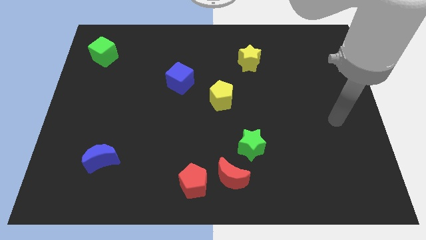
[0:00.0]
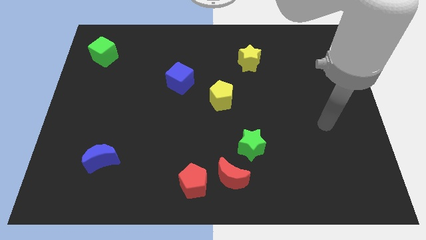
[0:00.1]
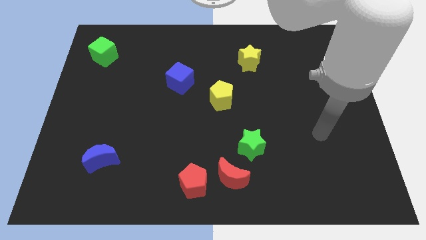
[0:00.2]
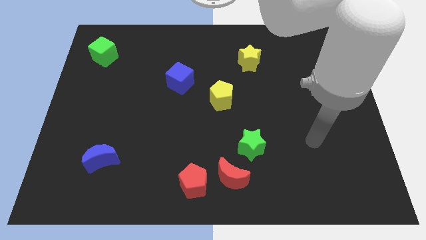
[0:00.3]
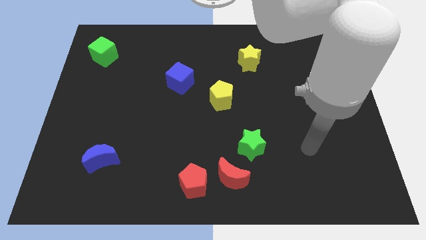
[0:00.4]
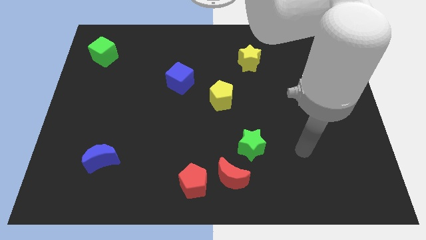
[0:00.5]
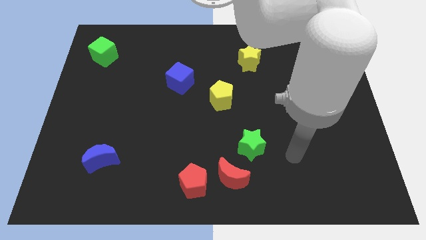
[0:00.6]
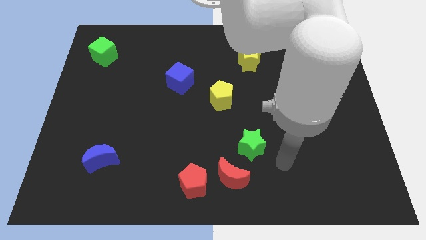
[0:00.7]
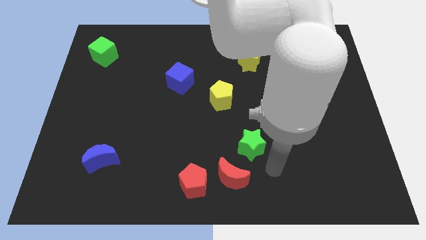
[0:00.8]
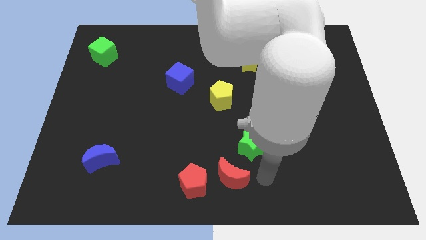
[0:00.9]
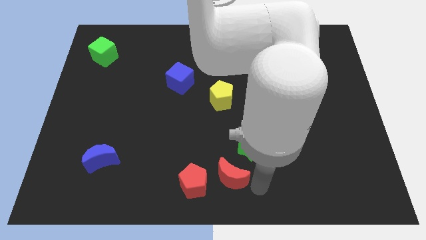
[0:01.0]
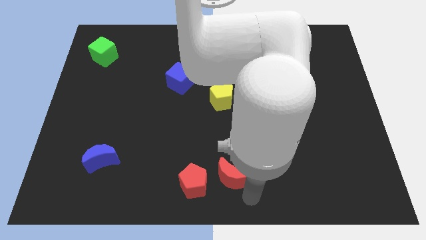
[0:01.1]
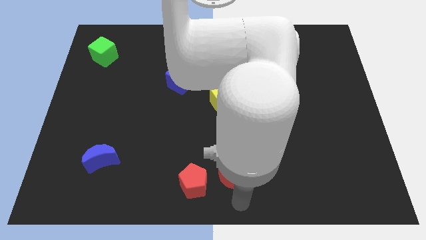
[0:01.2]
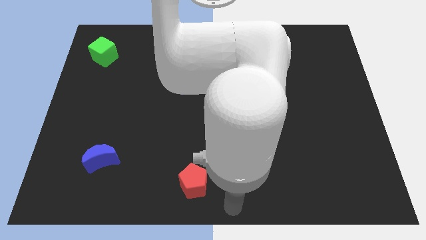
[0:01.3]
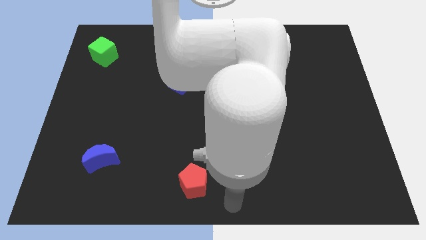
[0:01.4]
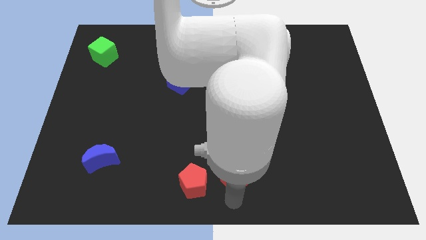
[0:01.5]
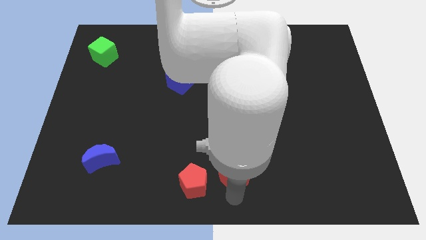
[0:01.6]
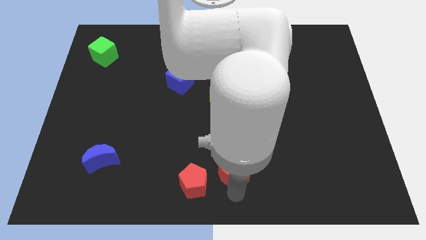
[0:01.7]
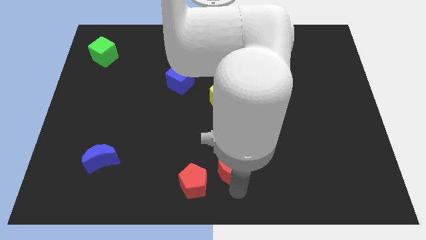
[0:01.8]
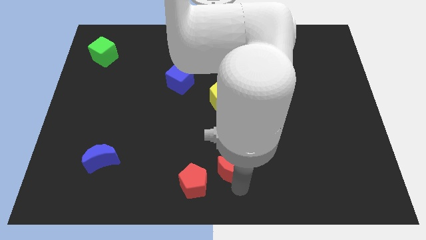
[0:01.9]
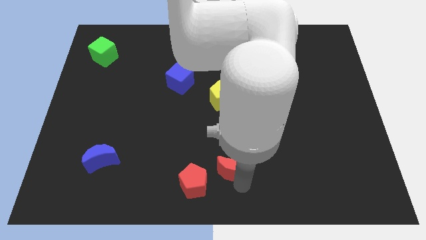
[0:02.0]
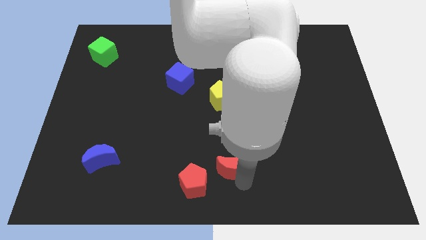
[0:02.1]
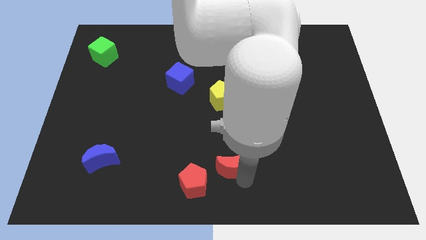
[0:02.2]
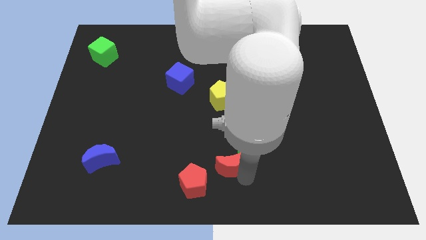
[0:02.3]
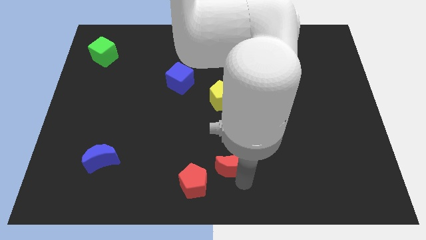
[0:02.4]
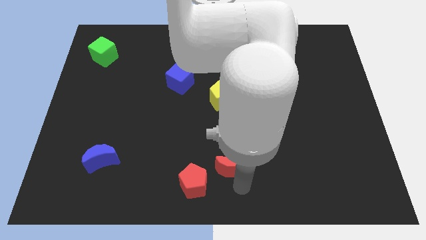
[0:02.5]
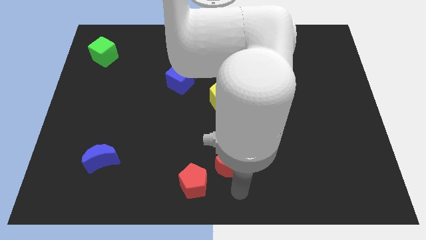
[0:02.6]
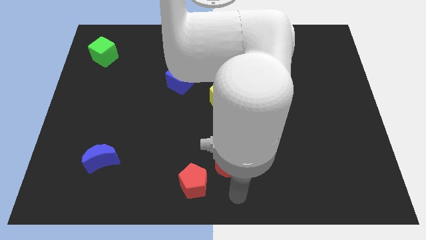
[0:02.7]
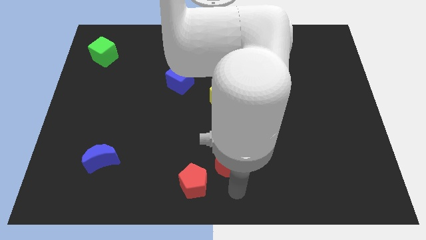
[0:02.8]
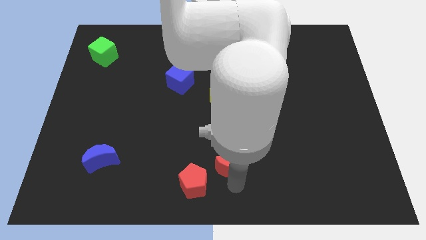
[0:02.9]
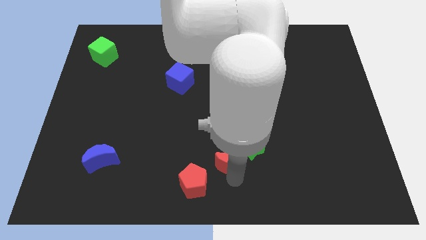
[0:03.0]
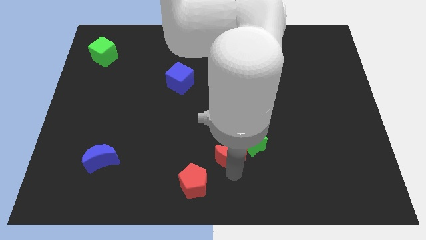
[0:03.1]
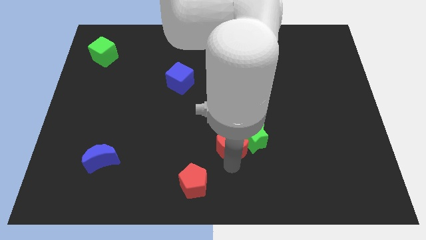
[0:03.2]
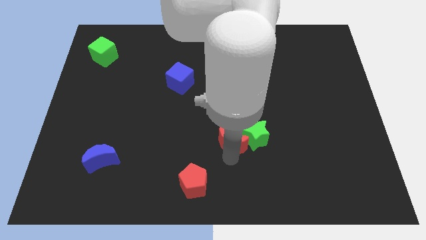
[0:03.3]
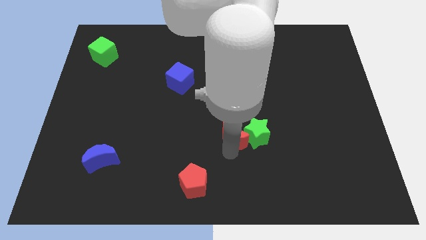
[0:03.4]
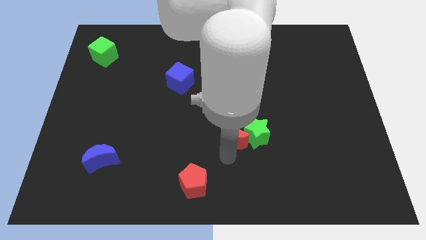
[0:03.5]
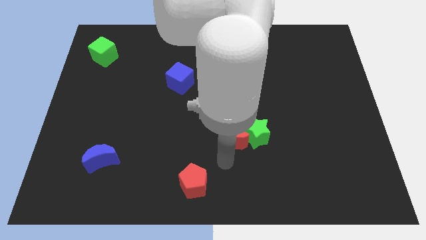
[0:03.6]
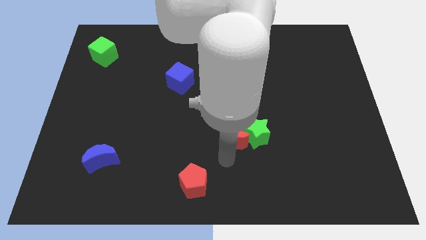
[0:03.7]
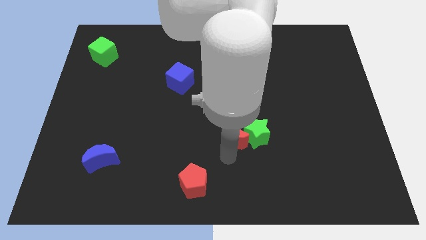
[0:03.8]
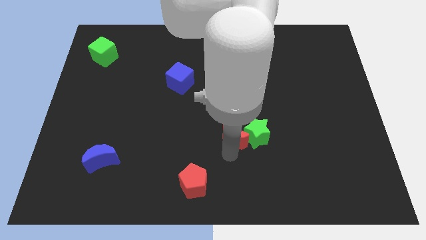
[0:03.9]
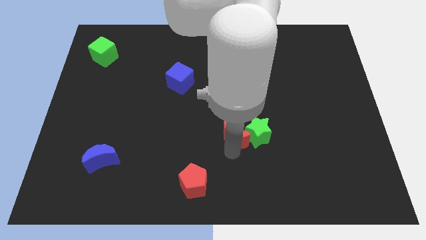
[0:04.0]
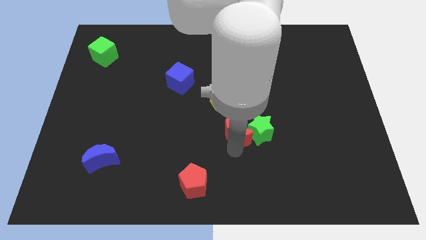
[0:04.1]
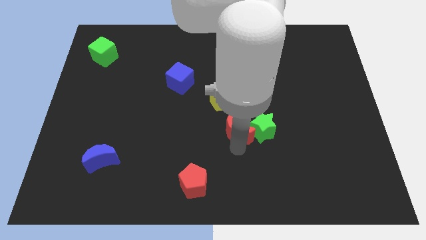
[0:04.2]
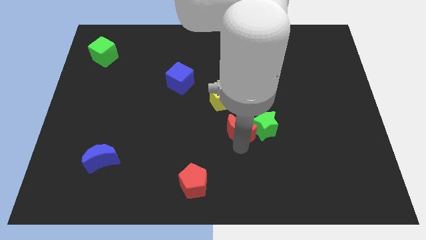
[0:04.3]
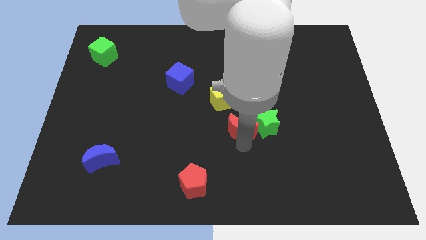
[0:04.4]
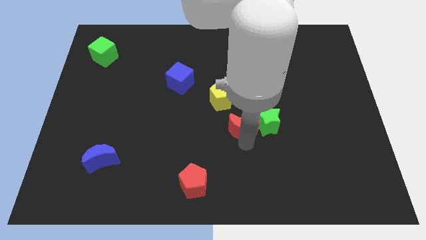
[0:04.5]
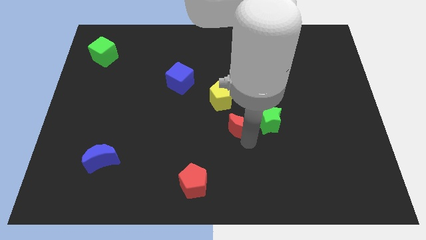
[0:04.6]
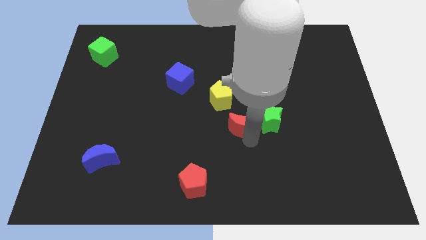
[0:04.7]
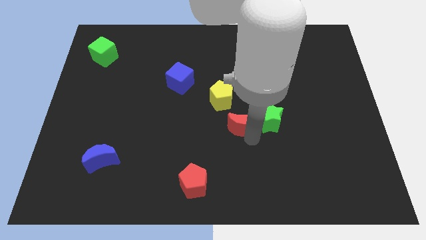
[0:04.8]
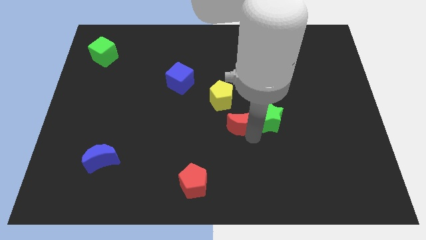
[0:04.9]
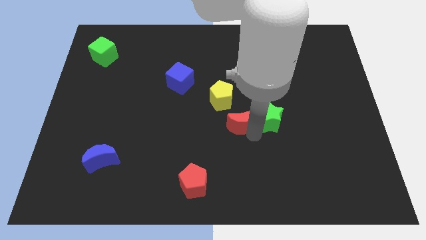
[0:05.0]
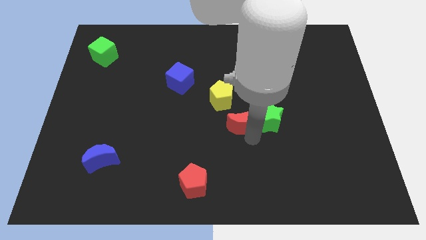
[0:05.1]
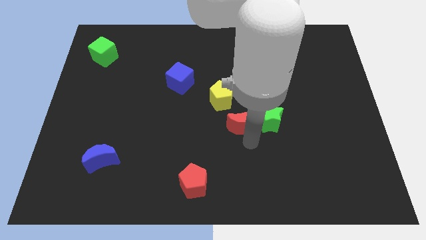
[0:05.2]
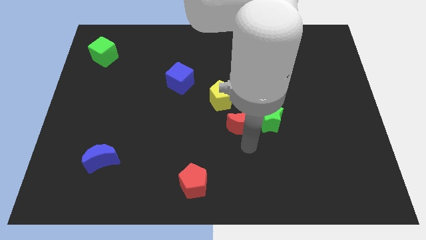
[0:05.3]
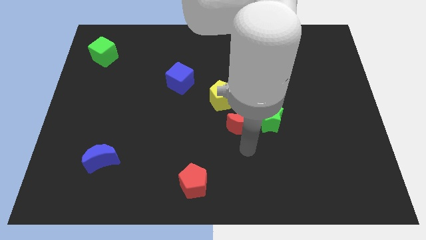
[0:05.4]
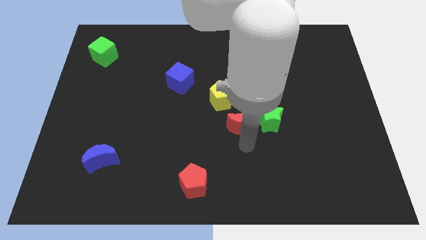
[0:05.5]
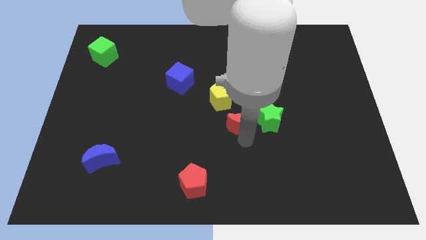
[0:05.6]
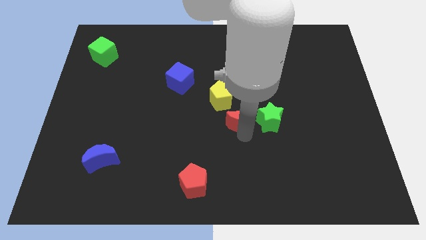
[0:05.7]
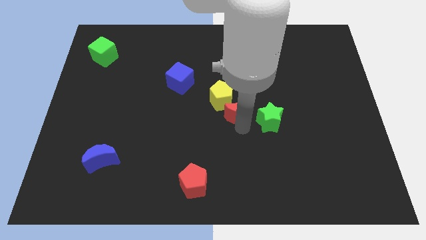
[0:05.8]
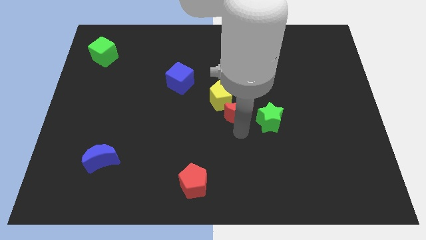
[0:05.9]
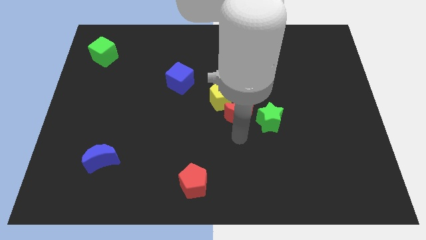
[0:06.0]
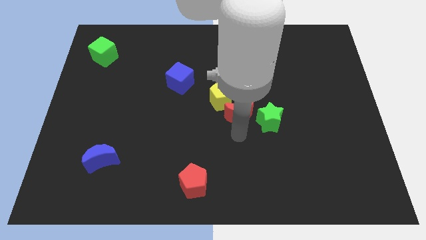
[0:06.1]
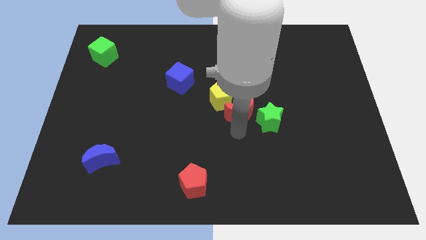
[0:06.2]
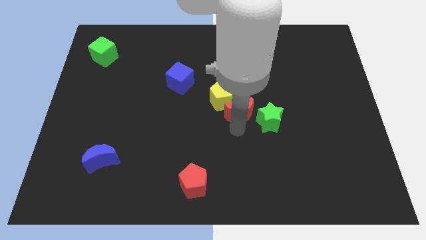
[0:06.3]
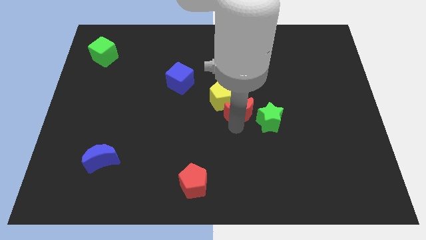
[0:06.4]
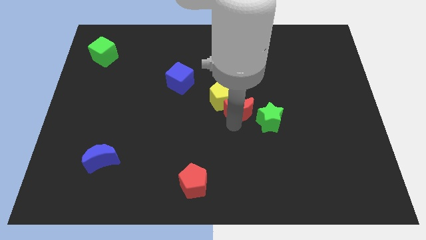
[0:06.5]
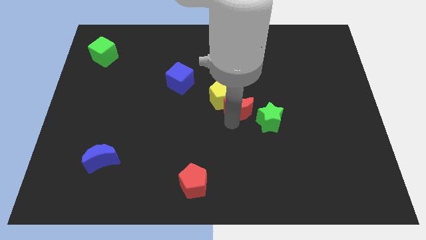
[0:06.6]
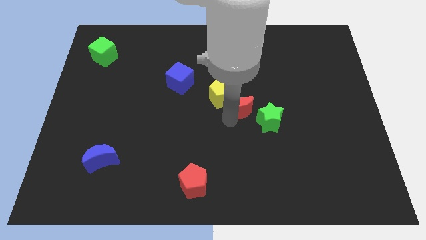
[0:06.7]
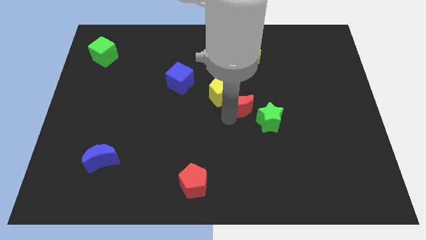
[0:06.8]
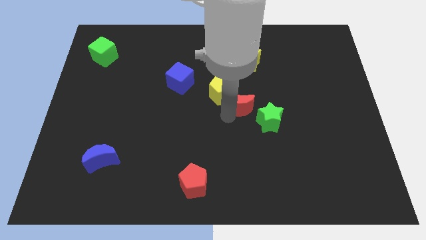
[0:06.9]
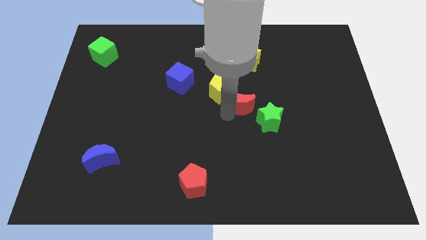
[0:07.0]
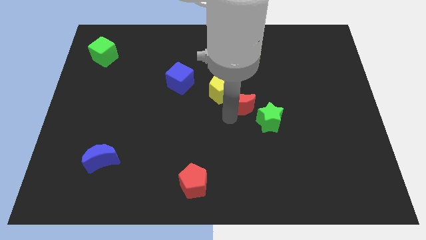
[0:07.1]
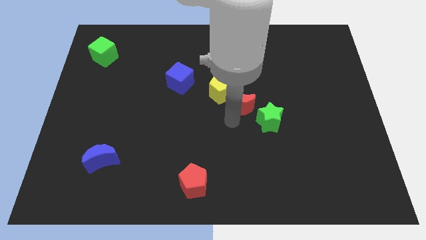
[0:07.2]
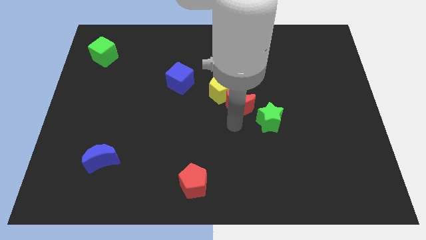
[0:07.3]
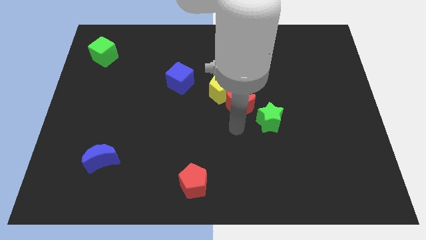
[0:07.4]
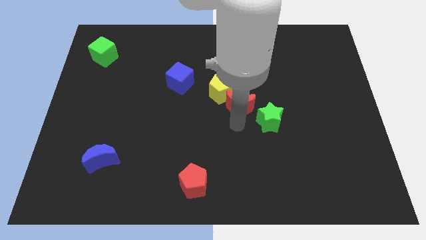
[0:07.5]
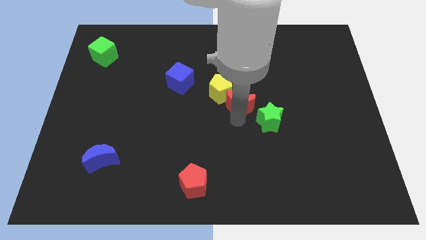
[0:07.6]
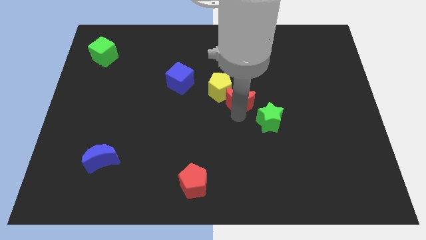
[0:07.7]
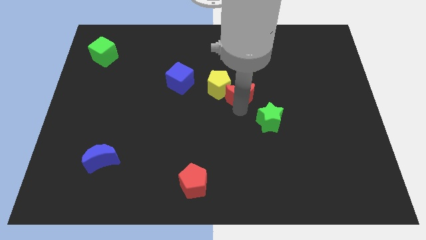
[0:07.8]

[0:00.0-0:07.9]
slide the red moon up
